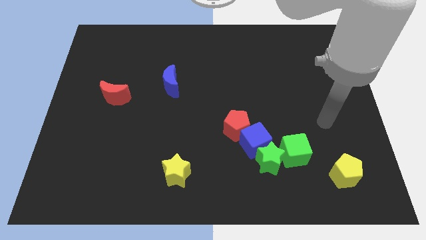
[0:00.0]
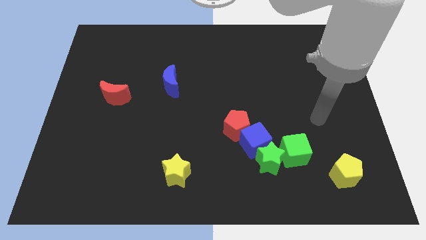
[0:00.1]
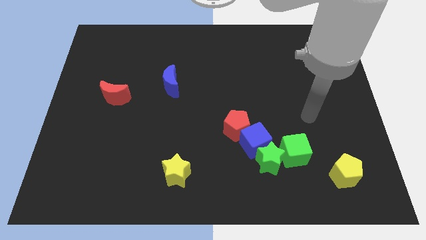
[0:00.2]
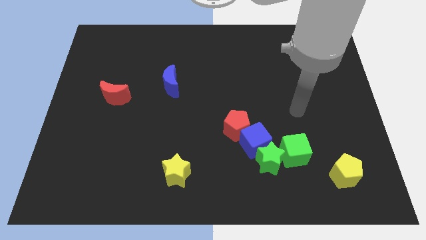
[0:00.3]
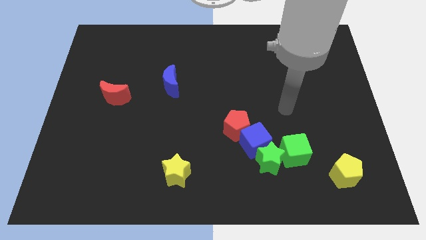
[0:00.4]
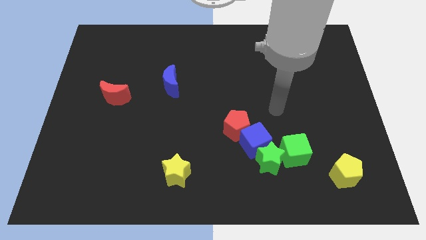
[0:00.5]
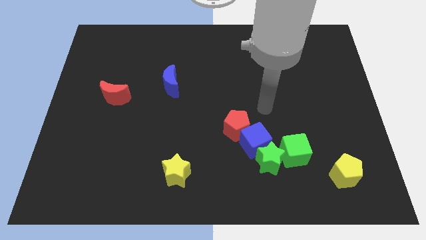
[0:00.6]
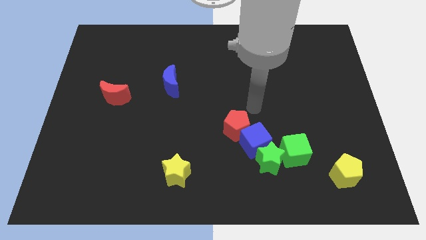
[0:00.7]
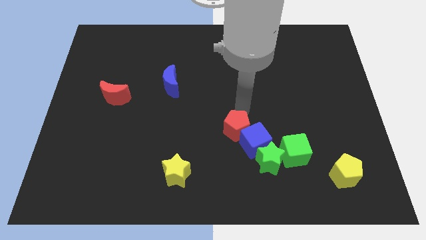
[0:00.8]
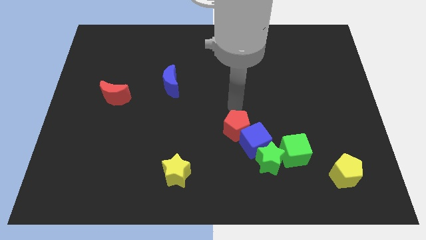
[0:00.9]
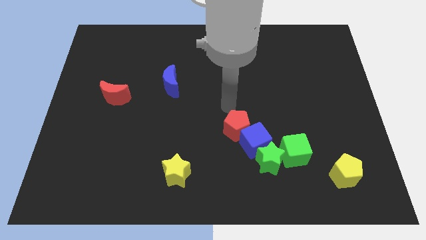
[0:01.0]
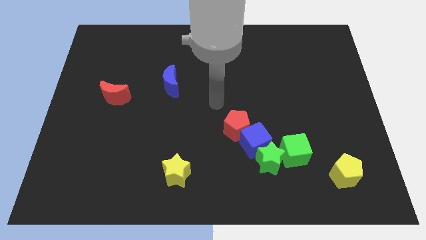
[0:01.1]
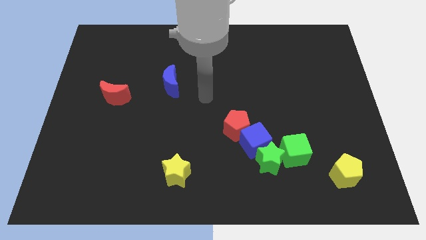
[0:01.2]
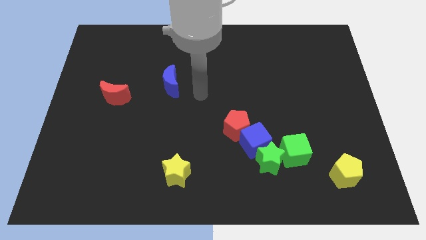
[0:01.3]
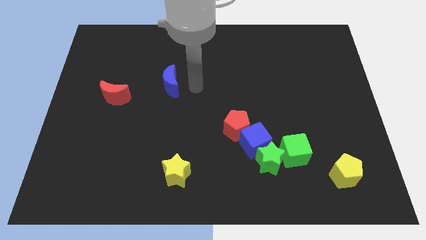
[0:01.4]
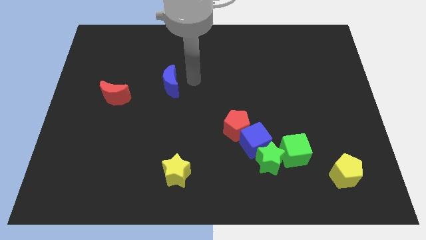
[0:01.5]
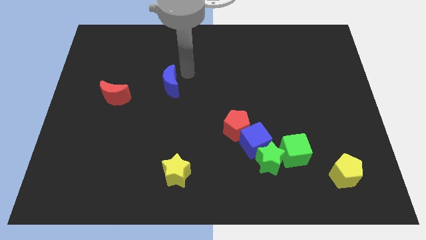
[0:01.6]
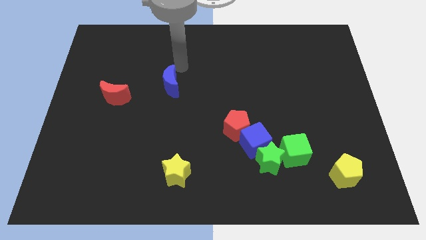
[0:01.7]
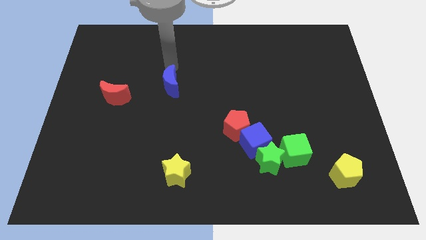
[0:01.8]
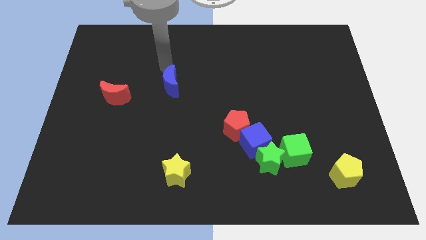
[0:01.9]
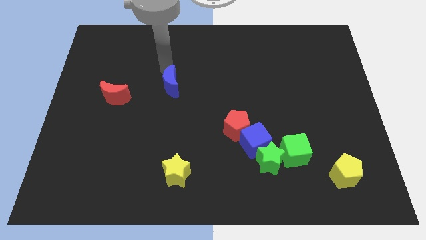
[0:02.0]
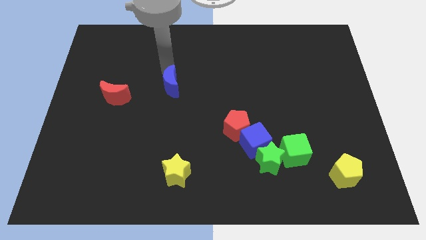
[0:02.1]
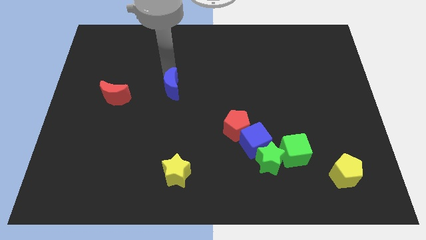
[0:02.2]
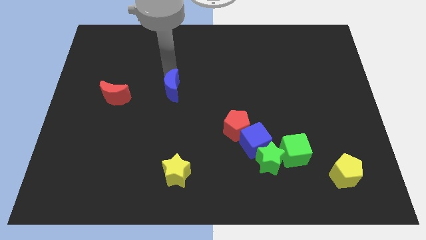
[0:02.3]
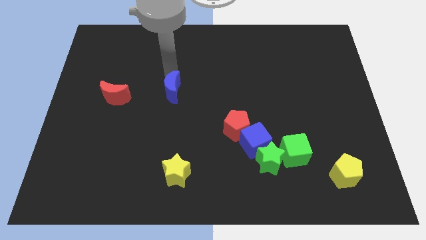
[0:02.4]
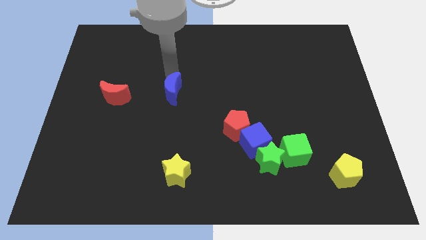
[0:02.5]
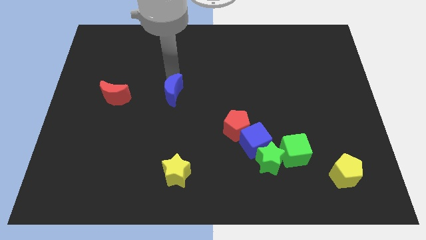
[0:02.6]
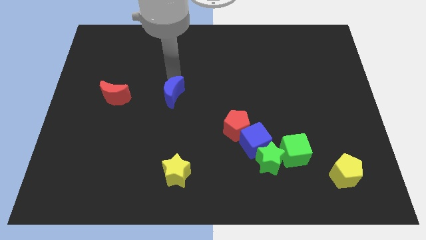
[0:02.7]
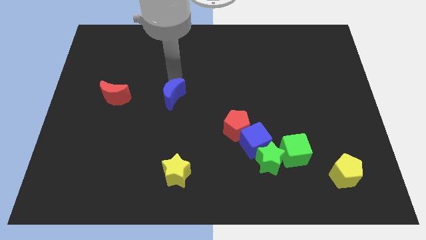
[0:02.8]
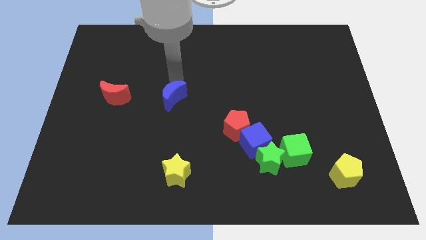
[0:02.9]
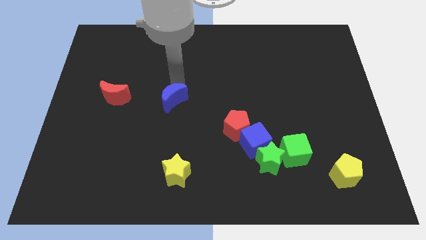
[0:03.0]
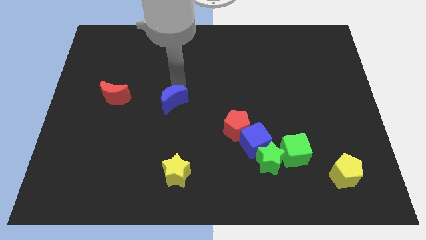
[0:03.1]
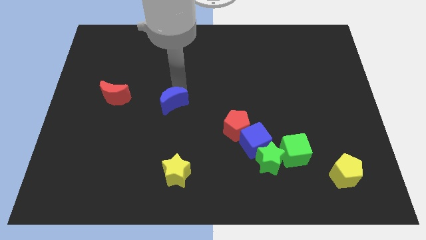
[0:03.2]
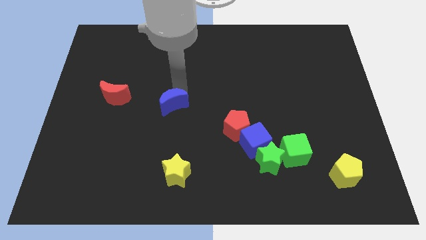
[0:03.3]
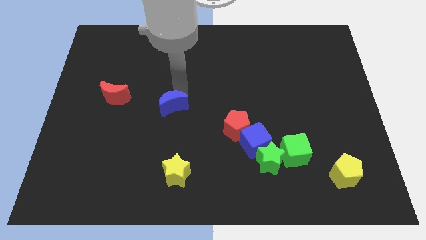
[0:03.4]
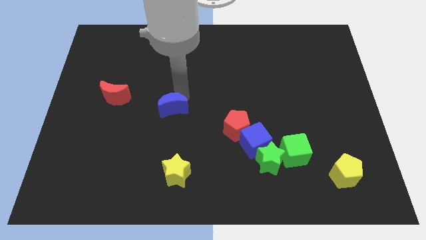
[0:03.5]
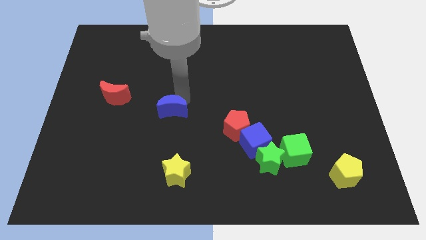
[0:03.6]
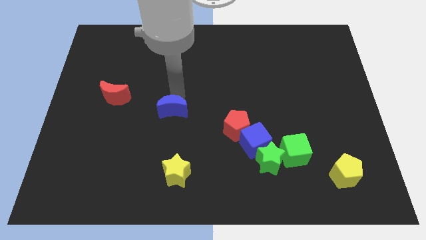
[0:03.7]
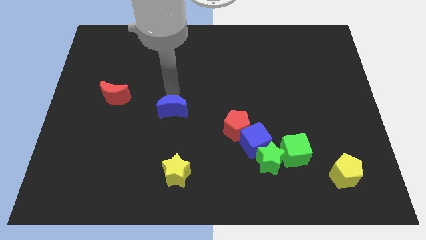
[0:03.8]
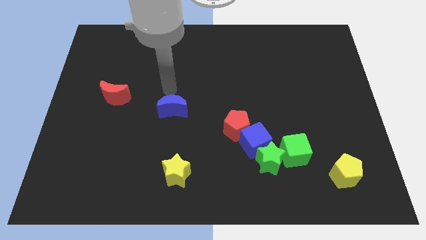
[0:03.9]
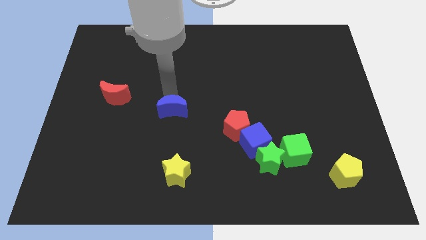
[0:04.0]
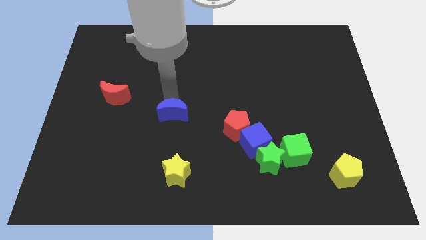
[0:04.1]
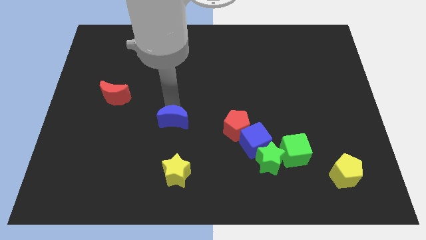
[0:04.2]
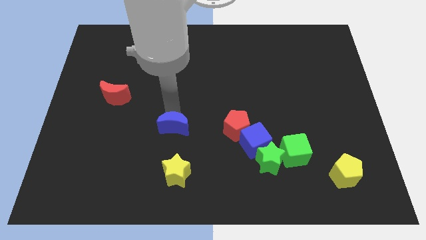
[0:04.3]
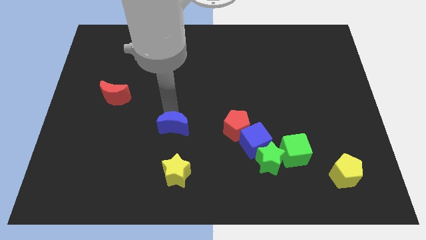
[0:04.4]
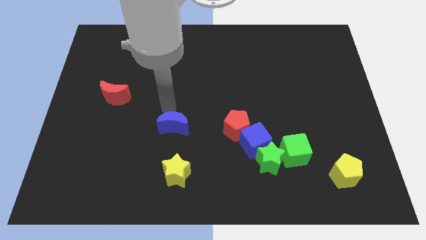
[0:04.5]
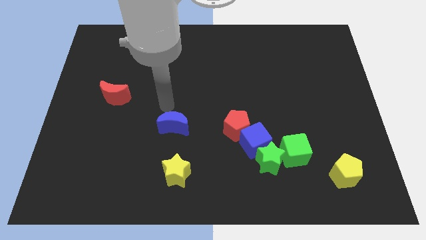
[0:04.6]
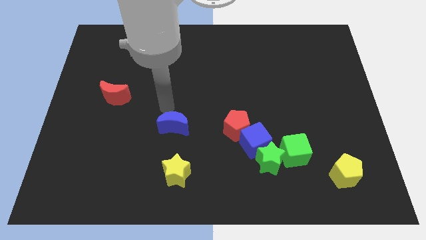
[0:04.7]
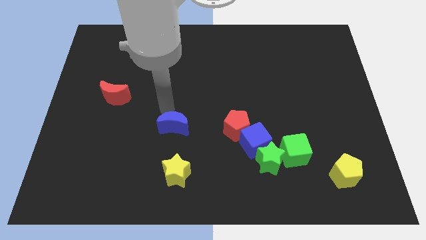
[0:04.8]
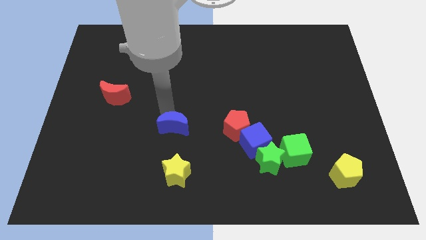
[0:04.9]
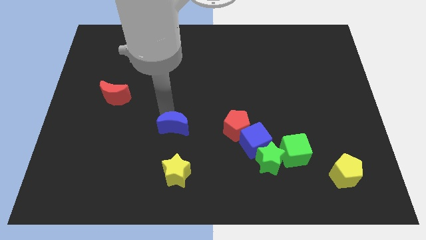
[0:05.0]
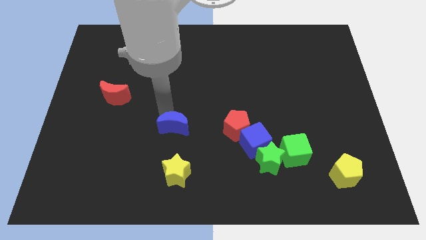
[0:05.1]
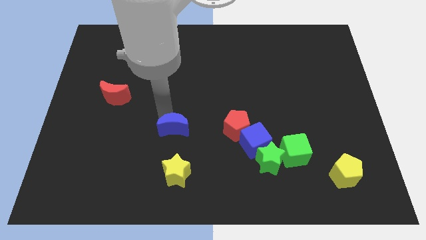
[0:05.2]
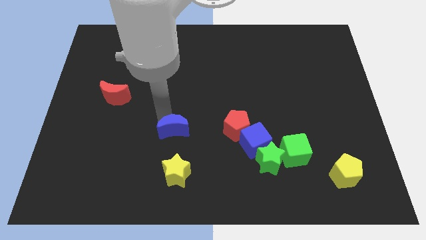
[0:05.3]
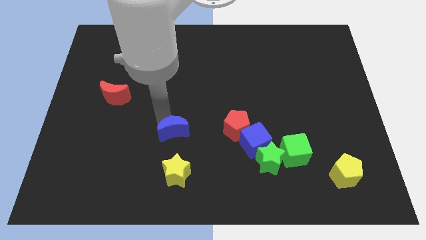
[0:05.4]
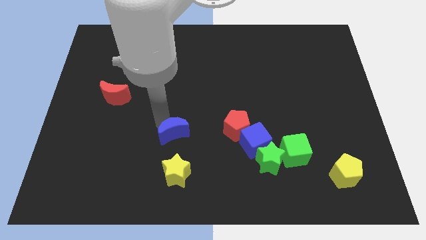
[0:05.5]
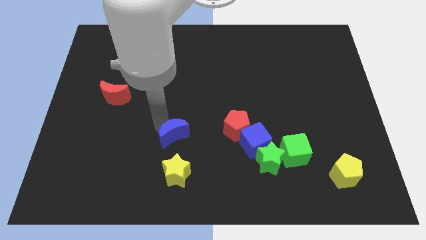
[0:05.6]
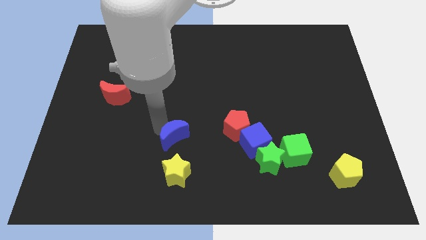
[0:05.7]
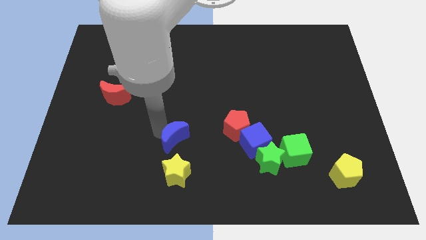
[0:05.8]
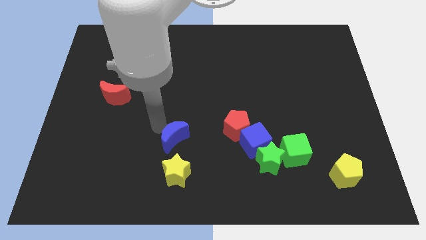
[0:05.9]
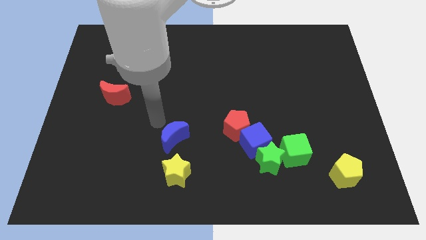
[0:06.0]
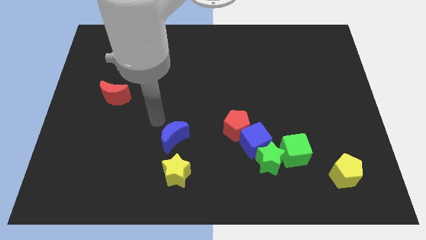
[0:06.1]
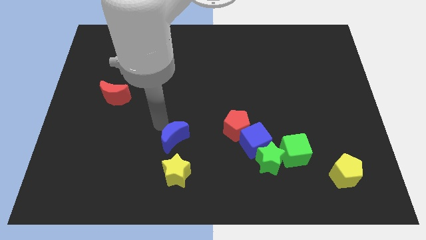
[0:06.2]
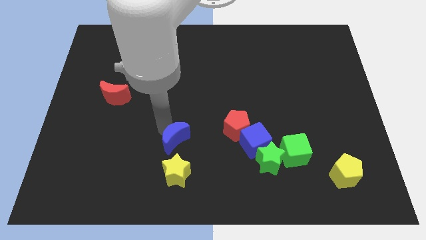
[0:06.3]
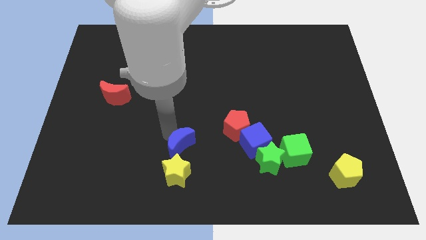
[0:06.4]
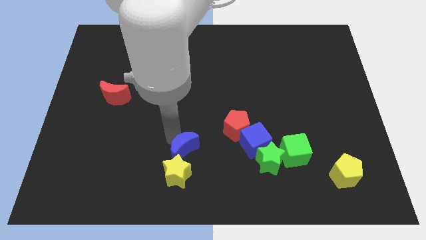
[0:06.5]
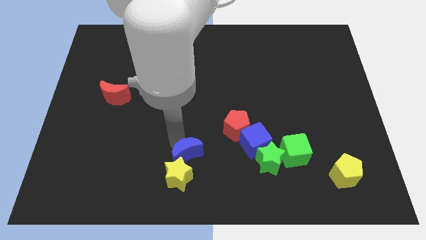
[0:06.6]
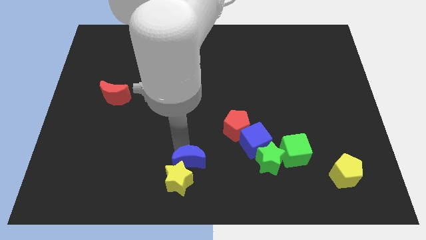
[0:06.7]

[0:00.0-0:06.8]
slide the blue moon to the bottom
